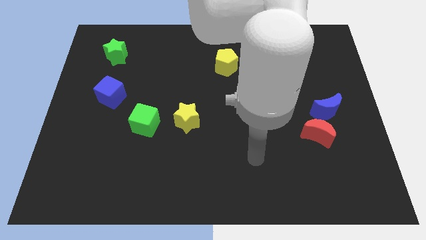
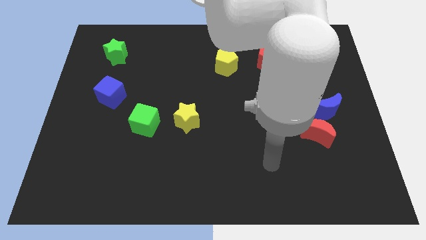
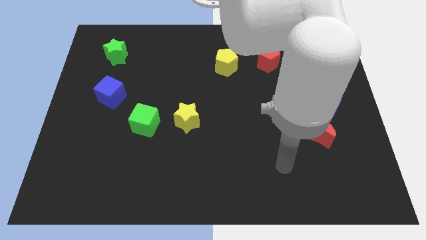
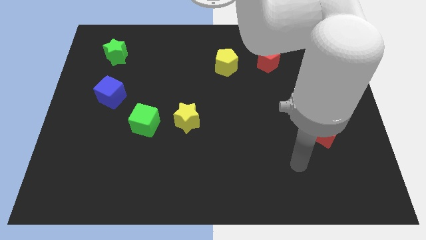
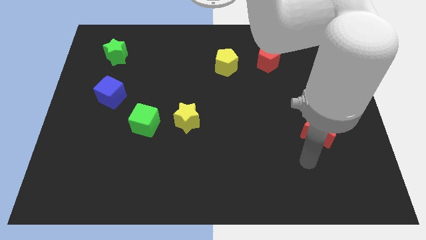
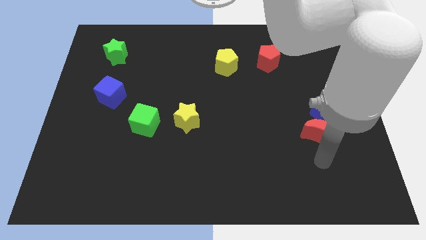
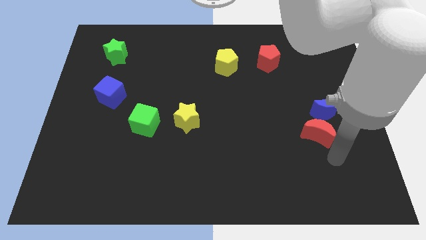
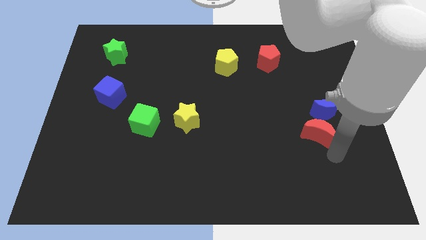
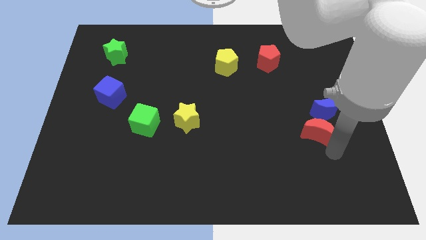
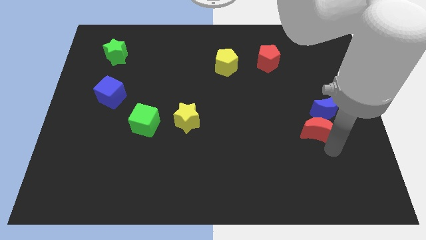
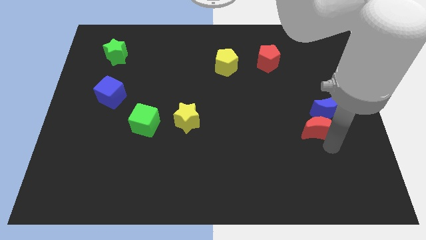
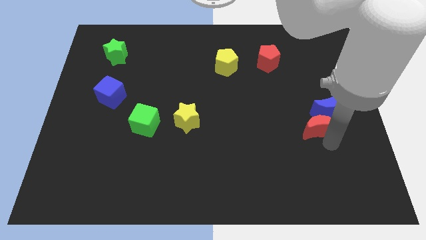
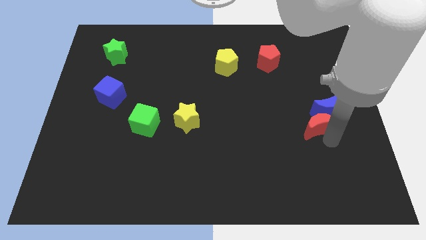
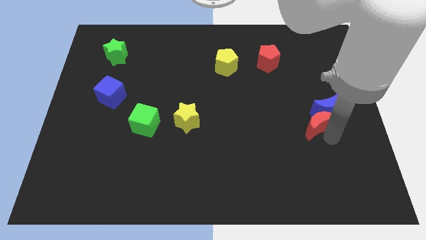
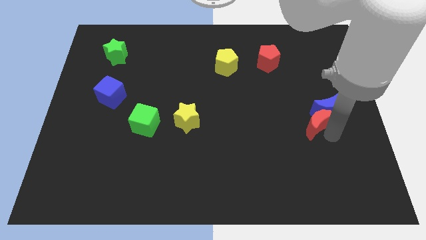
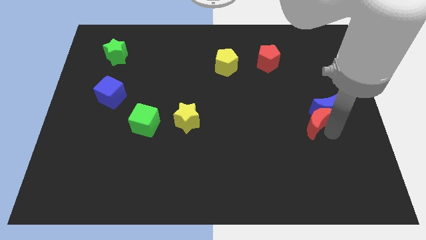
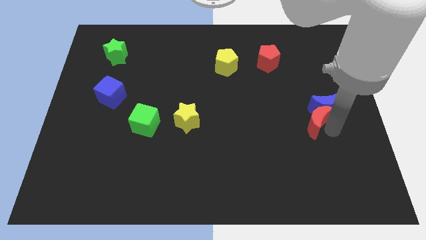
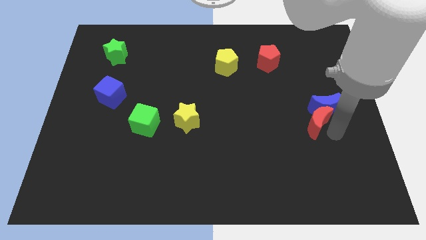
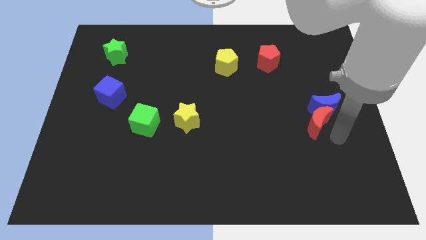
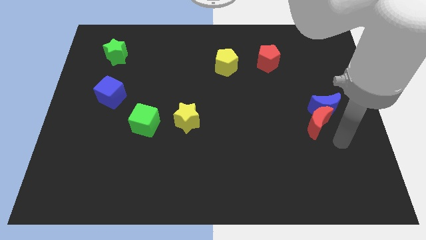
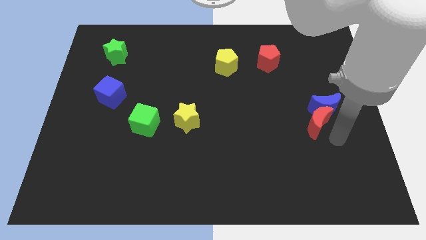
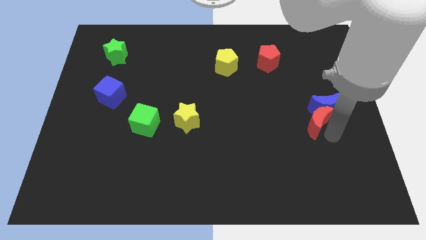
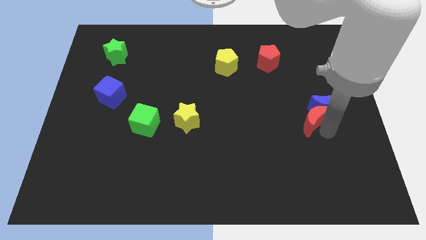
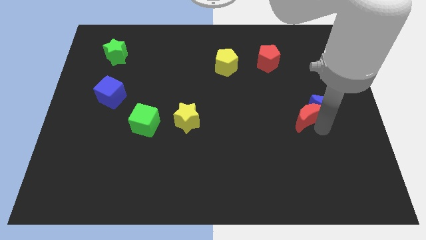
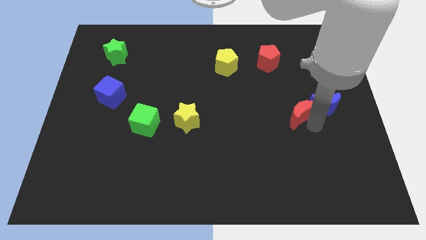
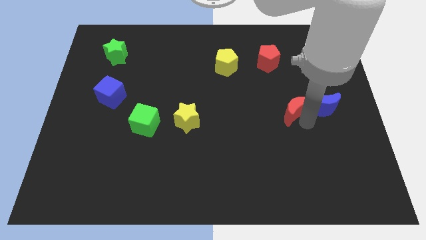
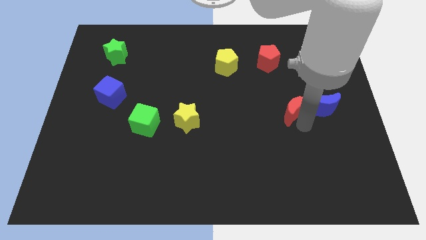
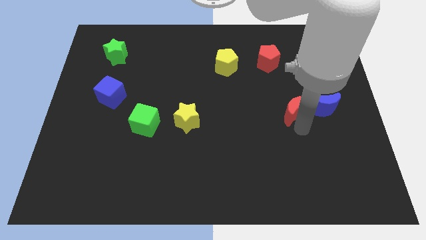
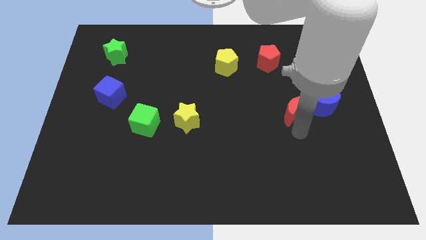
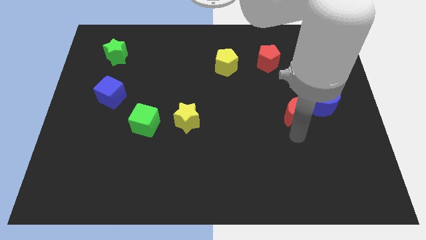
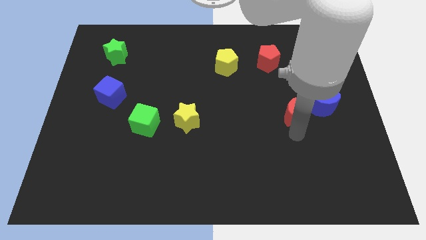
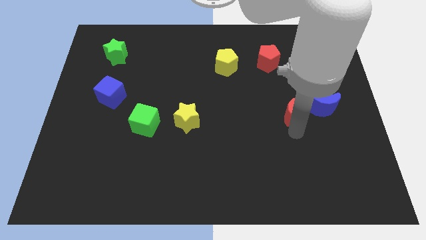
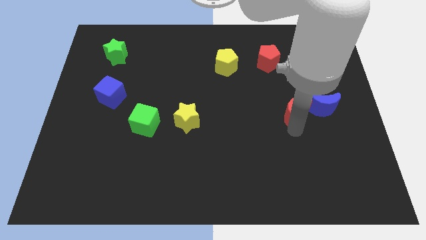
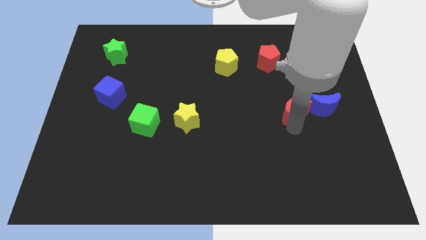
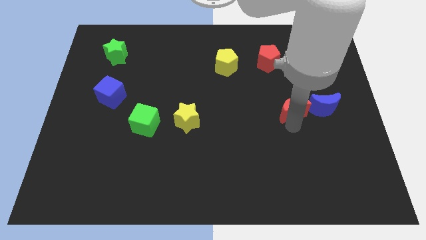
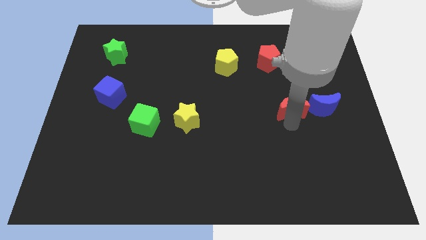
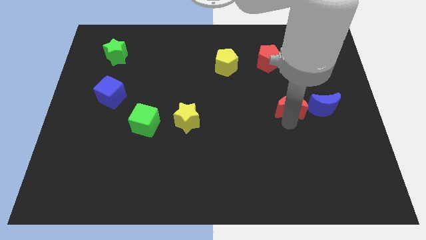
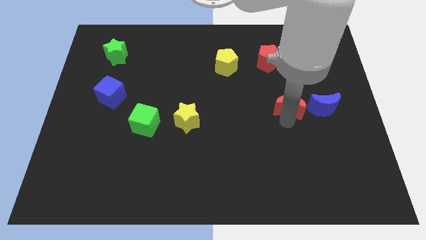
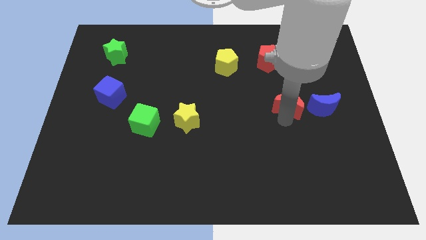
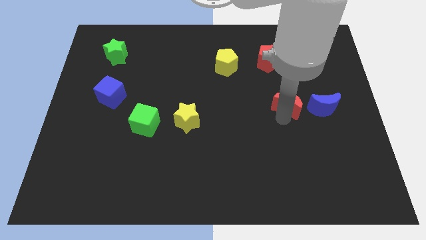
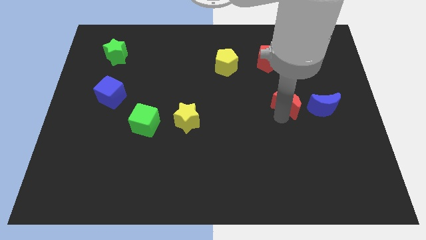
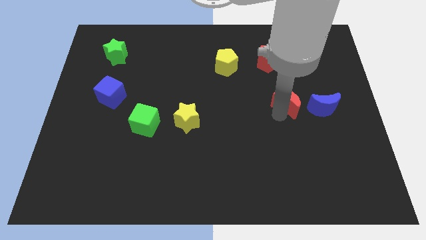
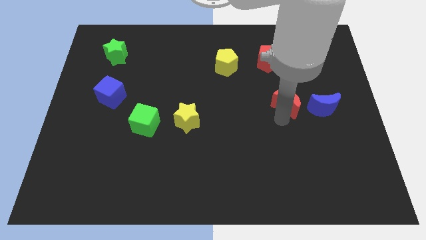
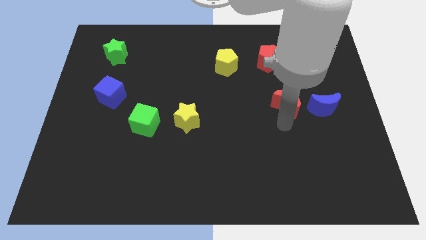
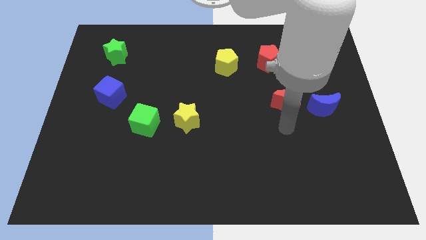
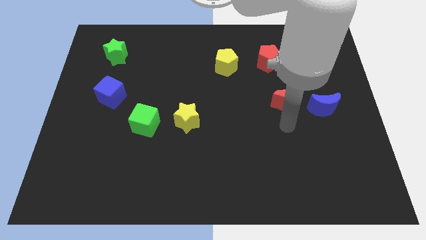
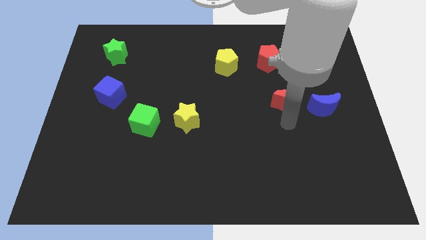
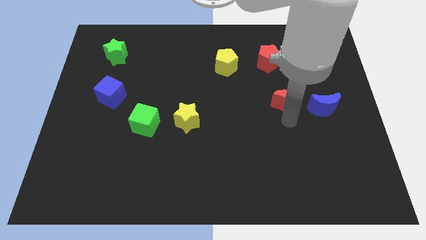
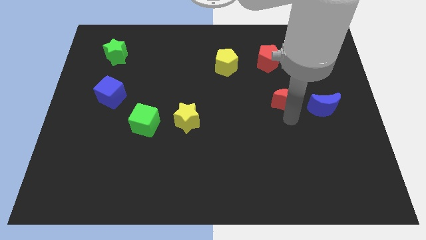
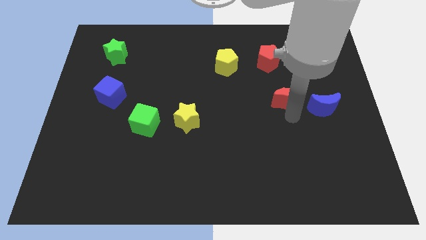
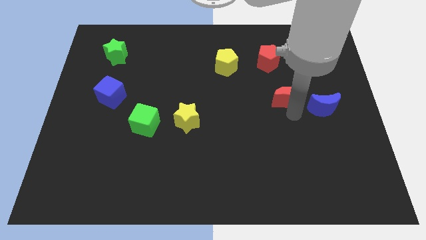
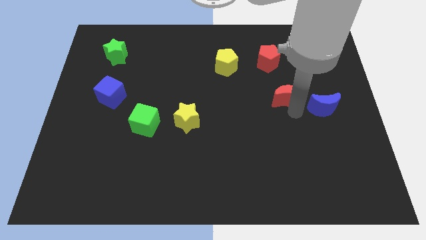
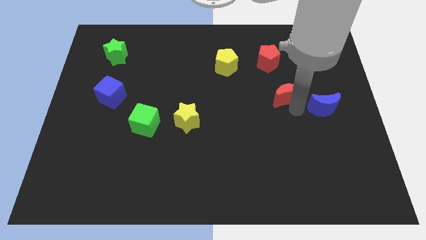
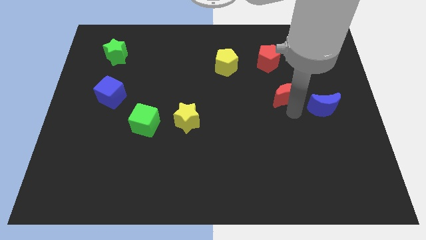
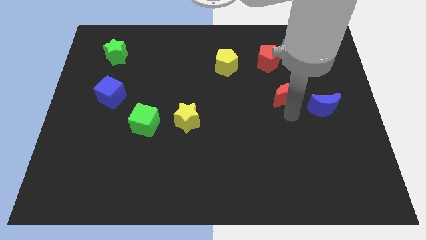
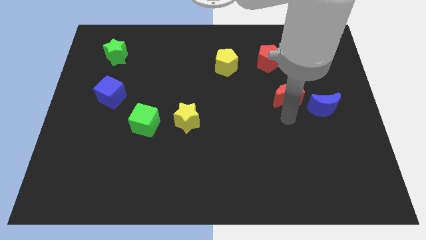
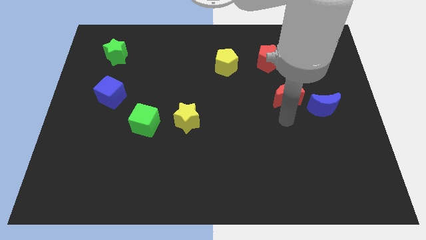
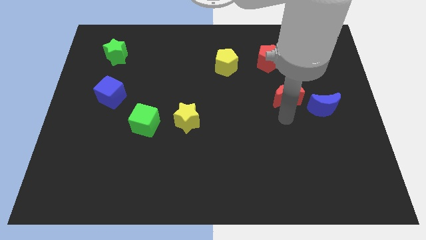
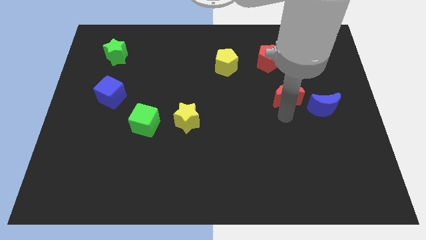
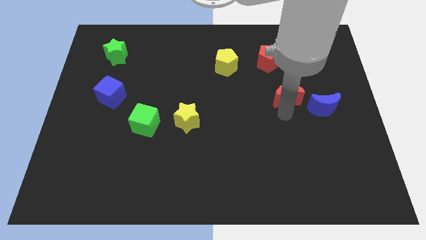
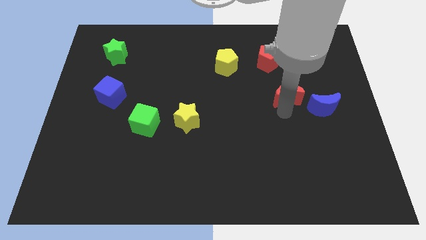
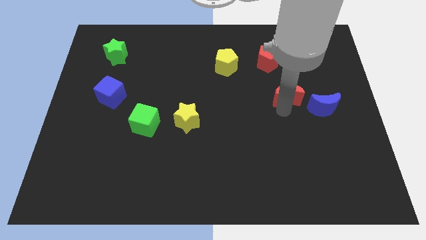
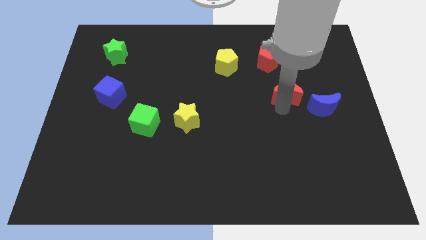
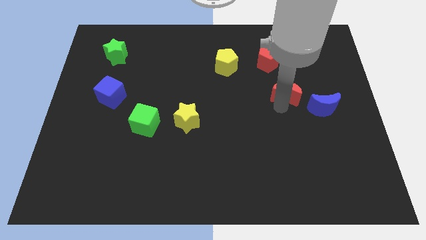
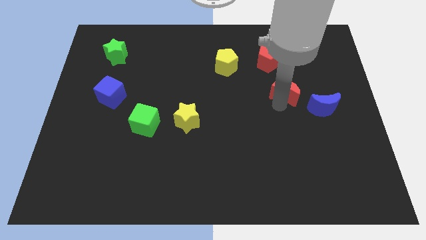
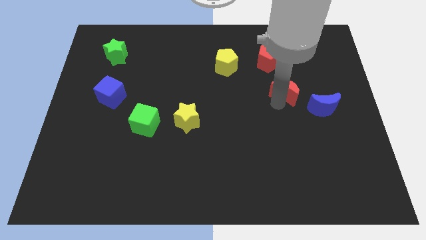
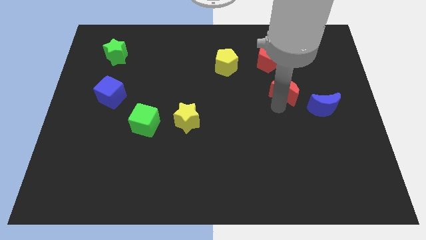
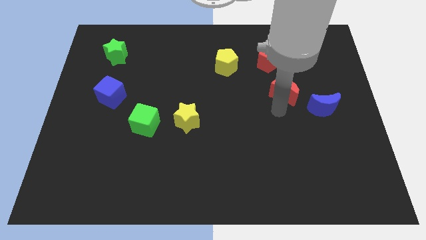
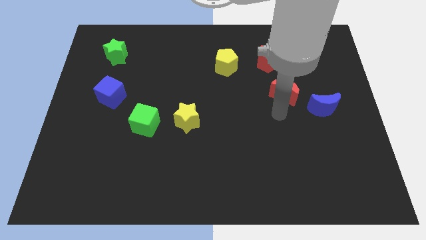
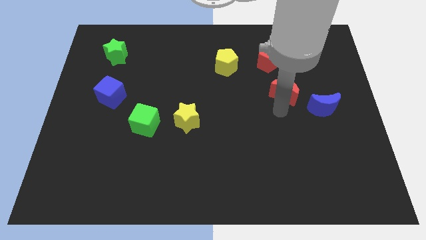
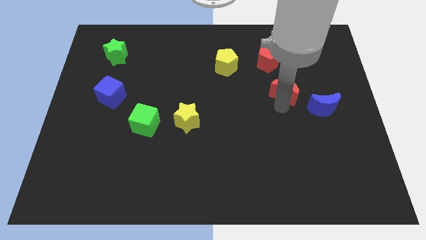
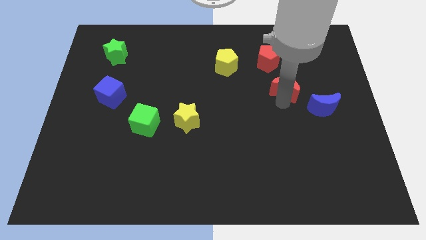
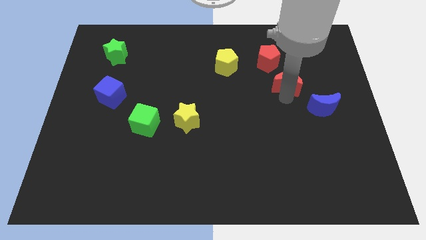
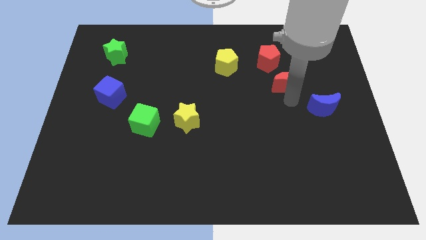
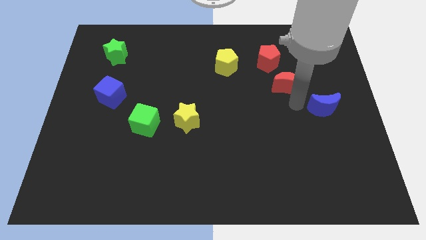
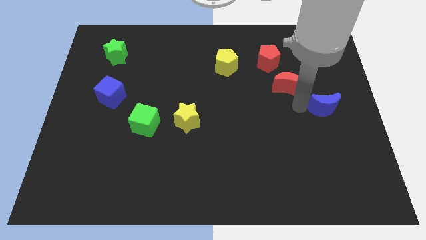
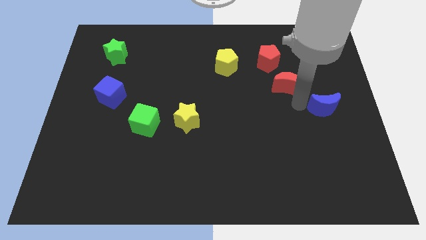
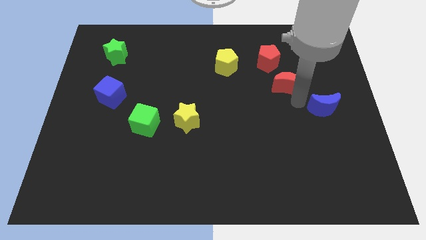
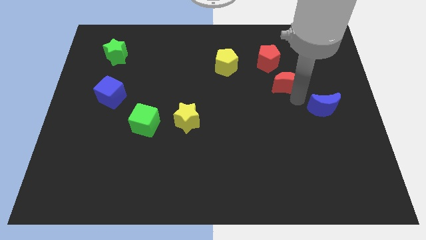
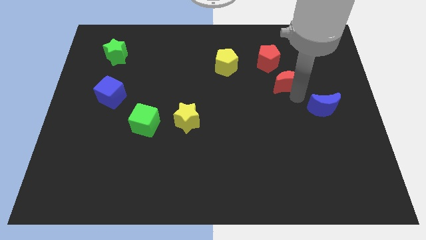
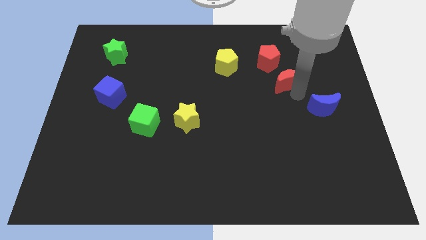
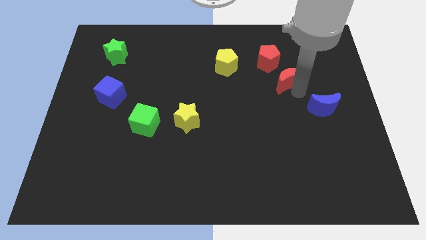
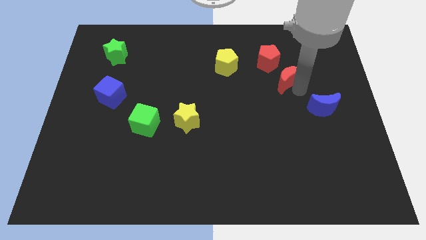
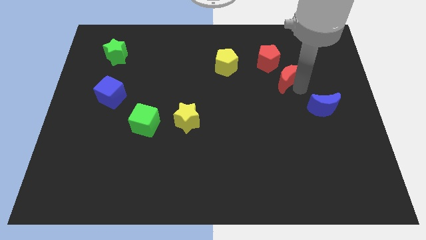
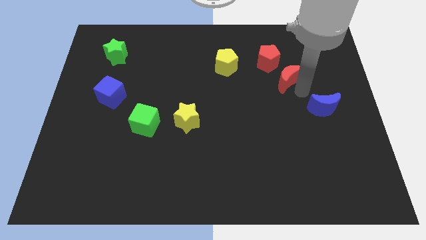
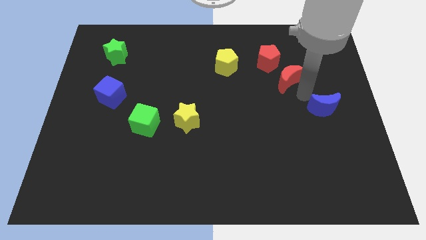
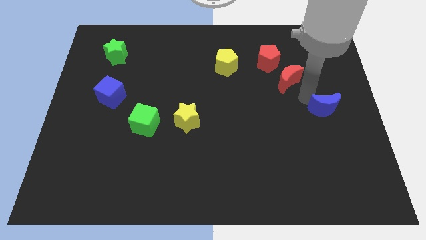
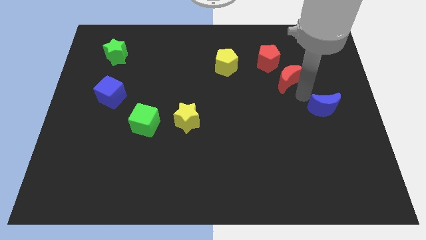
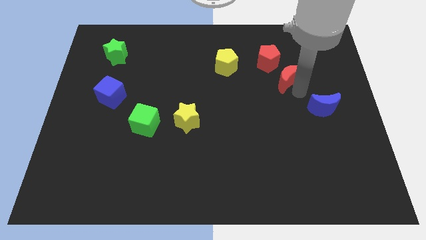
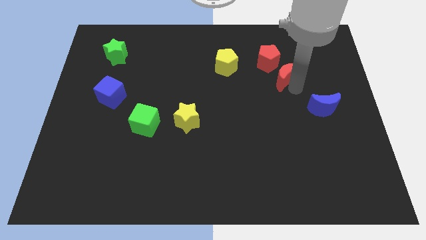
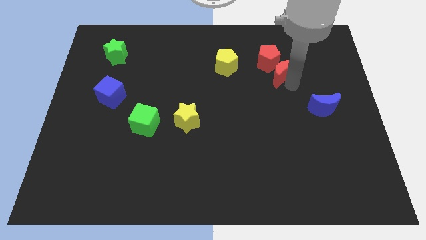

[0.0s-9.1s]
move the red moon to the red pentagon
